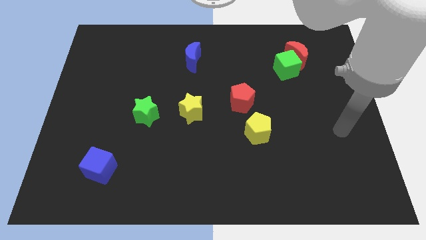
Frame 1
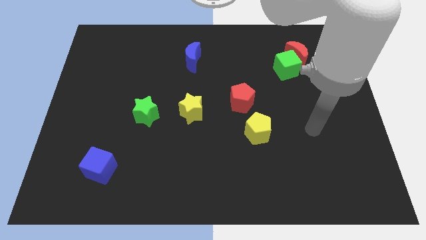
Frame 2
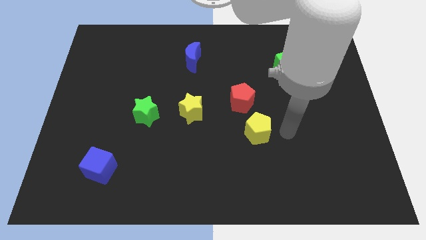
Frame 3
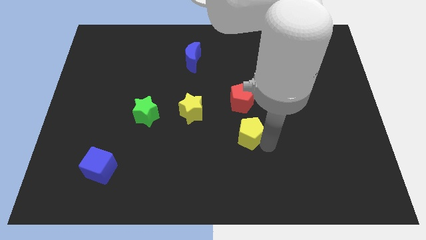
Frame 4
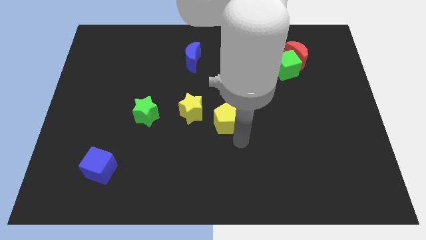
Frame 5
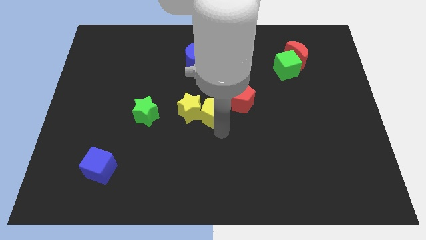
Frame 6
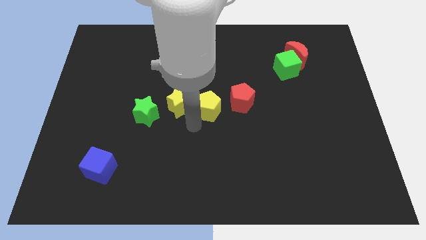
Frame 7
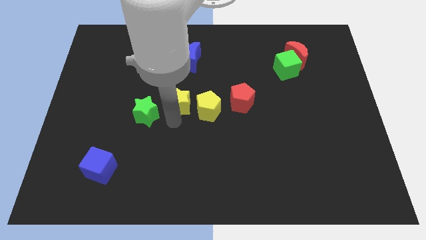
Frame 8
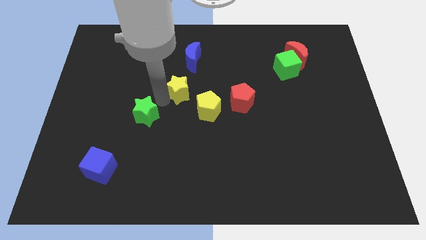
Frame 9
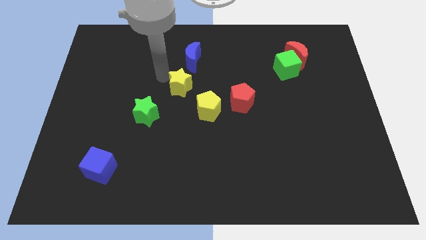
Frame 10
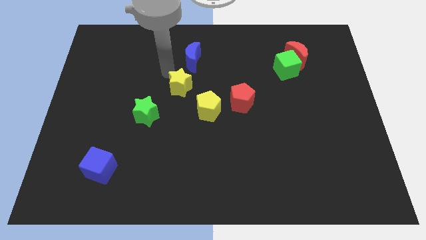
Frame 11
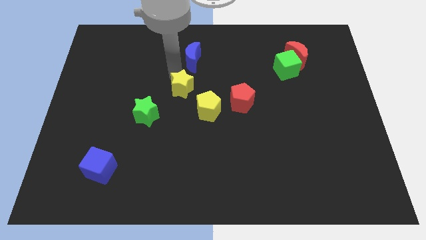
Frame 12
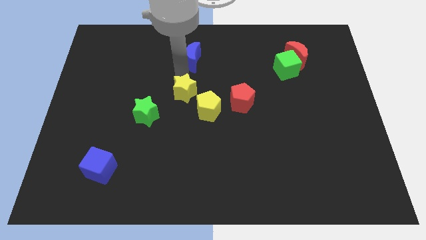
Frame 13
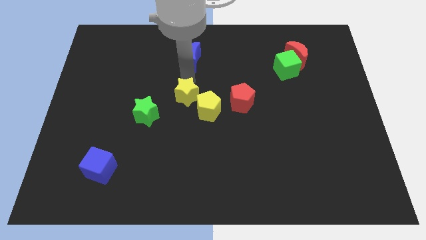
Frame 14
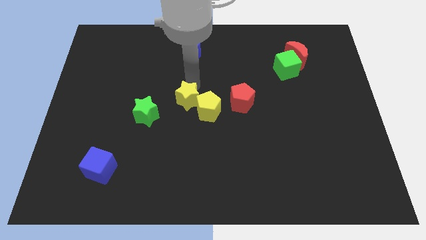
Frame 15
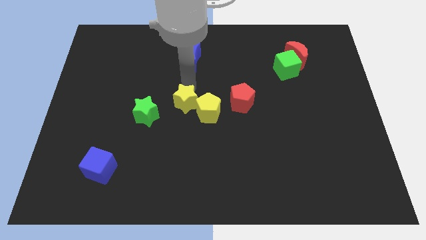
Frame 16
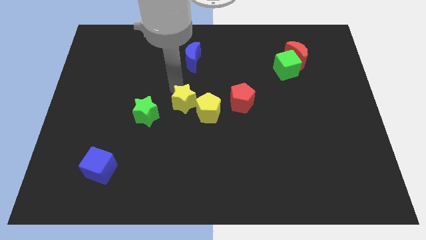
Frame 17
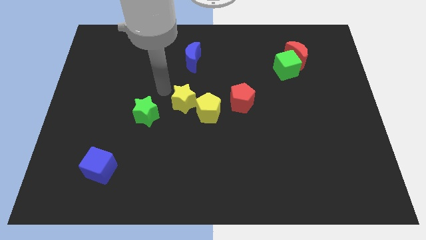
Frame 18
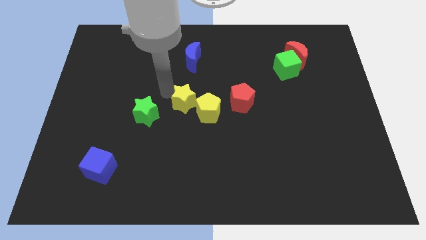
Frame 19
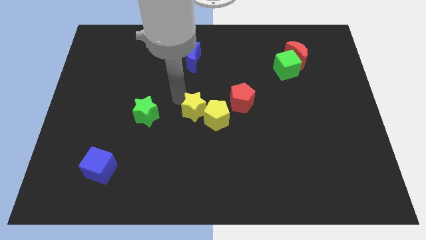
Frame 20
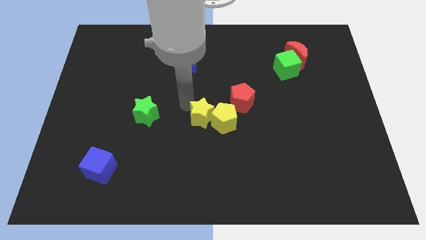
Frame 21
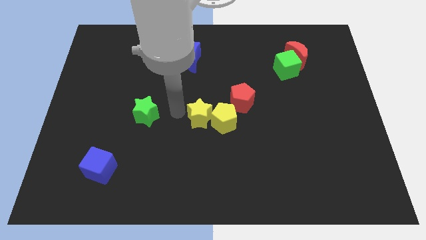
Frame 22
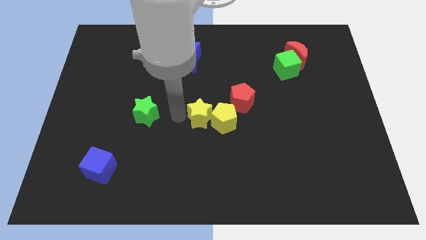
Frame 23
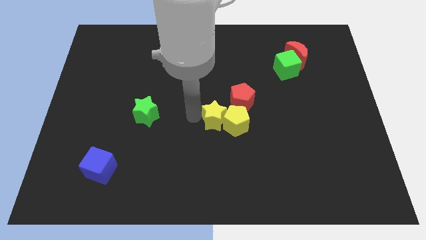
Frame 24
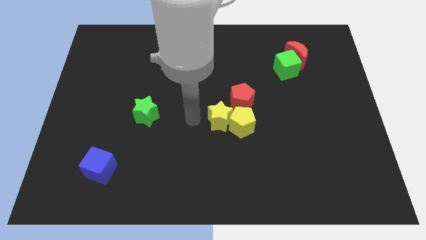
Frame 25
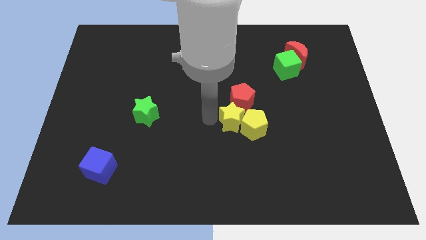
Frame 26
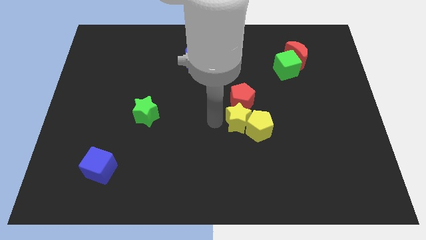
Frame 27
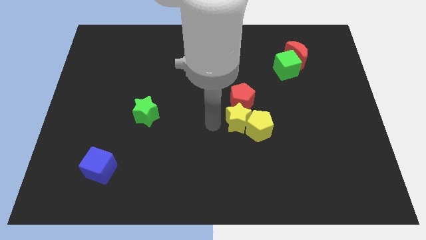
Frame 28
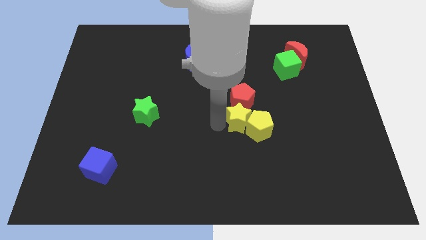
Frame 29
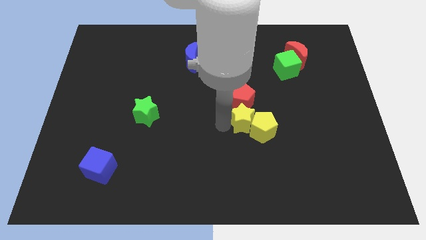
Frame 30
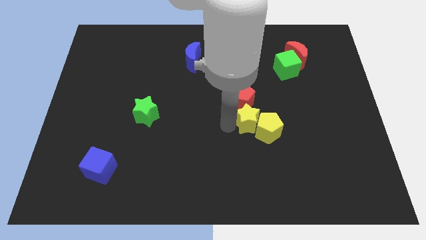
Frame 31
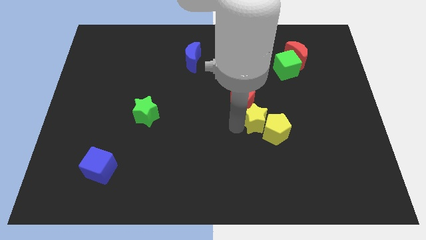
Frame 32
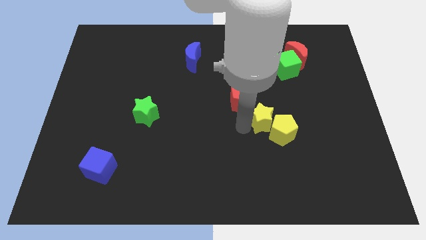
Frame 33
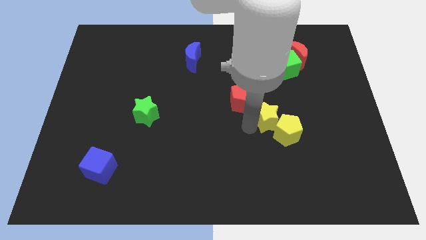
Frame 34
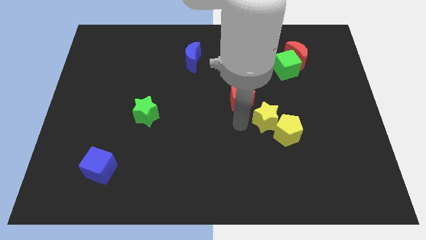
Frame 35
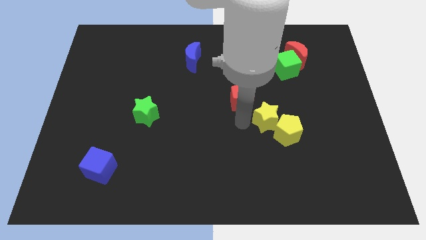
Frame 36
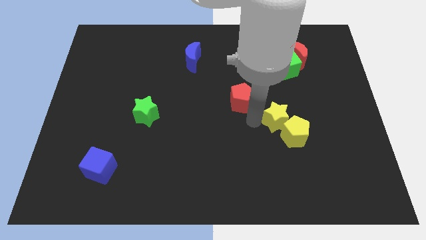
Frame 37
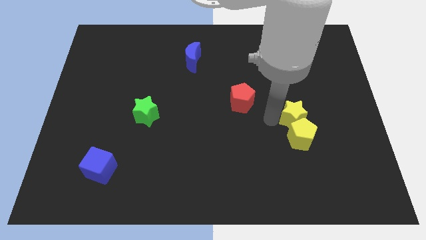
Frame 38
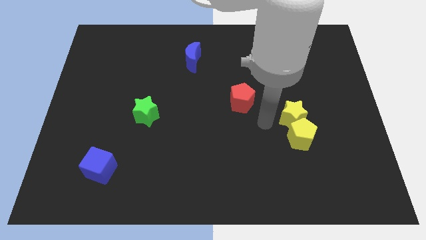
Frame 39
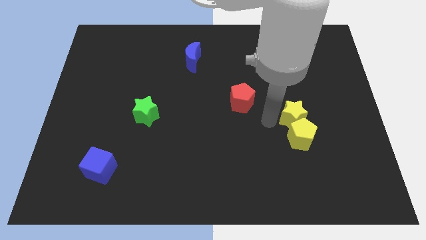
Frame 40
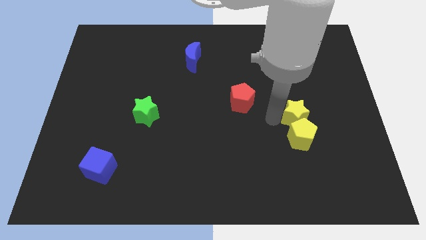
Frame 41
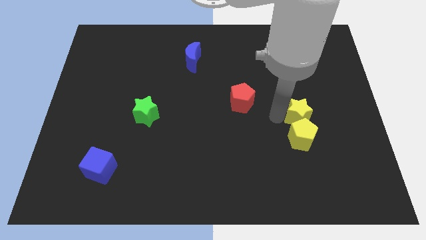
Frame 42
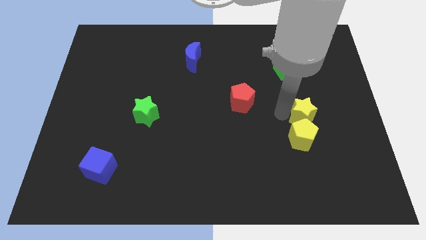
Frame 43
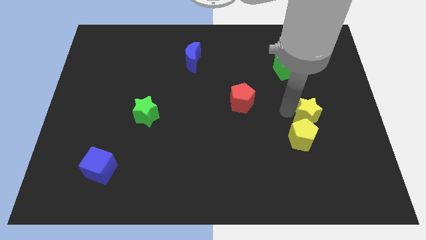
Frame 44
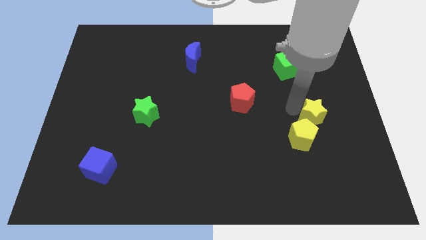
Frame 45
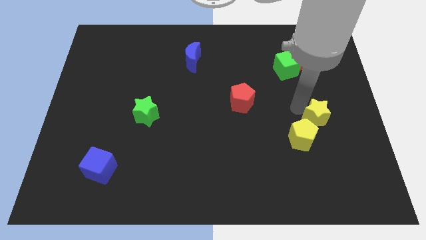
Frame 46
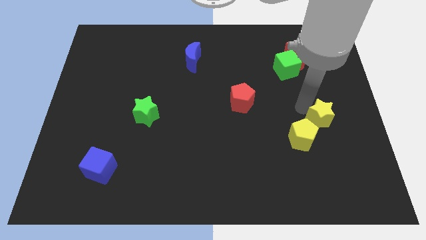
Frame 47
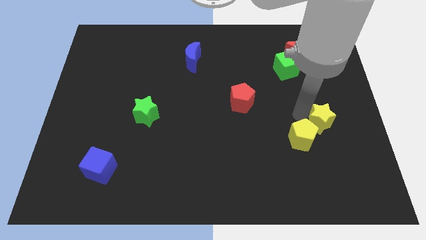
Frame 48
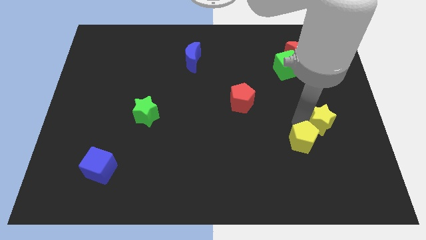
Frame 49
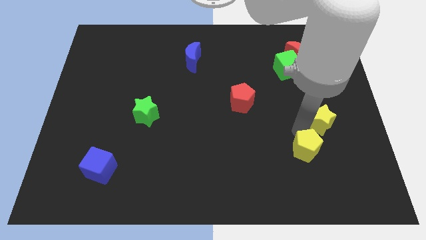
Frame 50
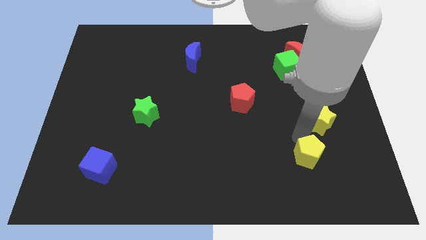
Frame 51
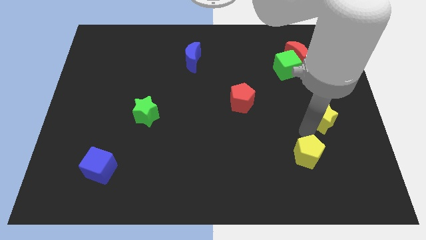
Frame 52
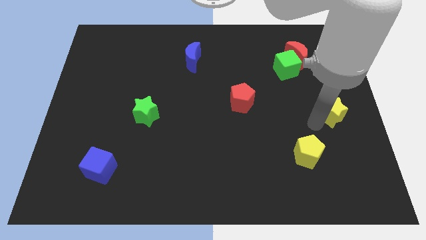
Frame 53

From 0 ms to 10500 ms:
put the yellow star to the right side of the board

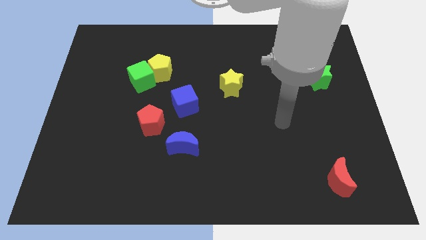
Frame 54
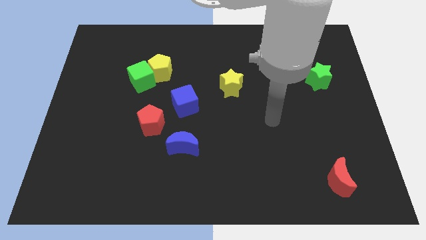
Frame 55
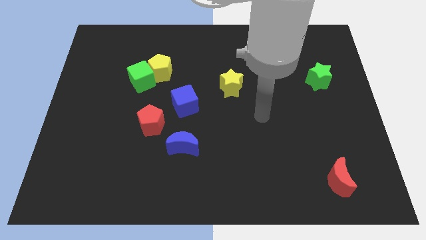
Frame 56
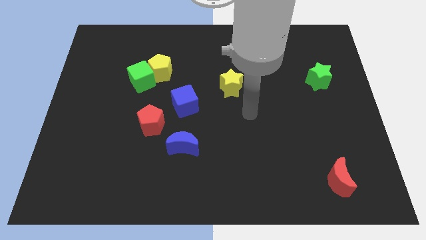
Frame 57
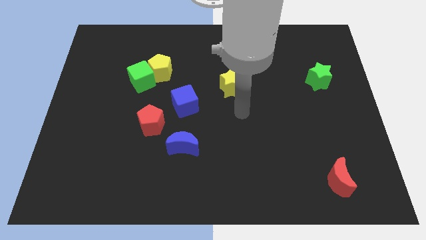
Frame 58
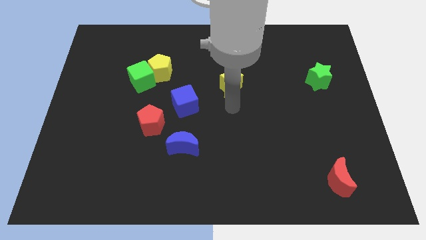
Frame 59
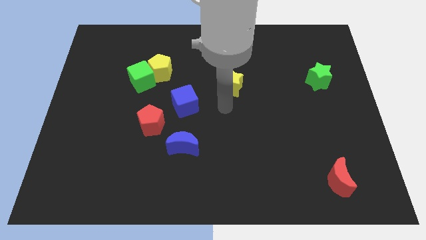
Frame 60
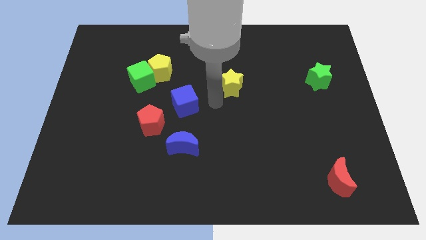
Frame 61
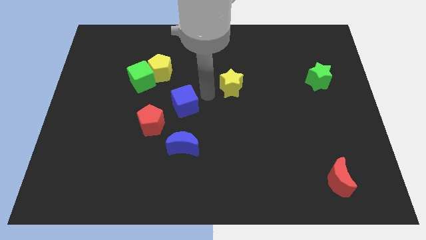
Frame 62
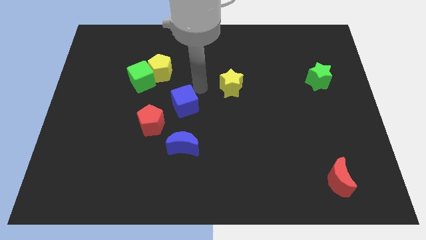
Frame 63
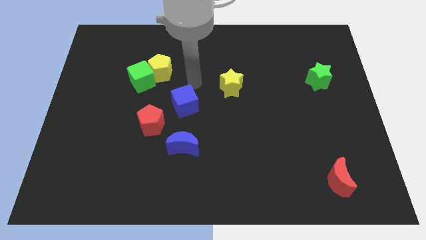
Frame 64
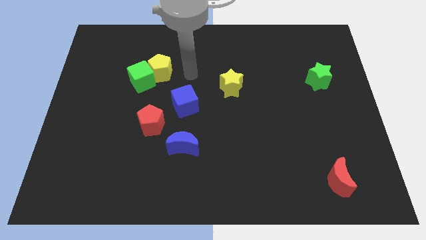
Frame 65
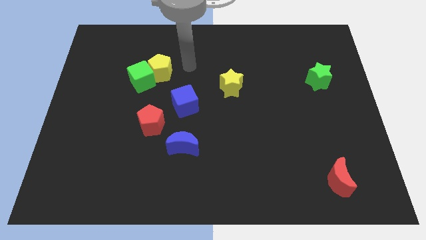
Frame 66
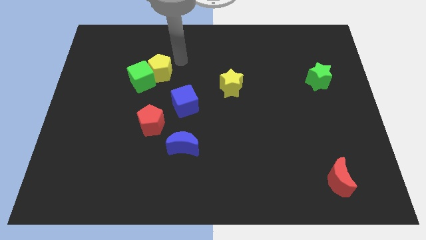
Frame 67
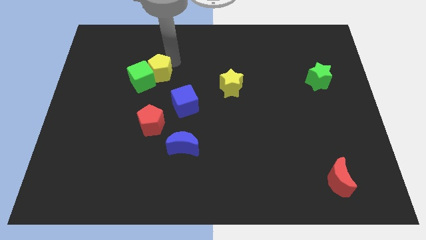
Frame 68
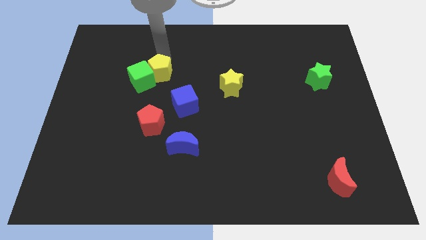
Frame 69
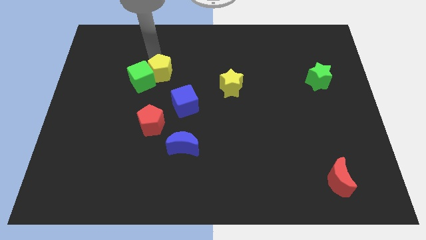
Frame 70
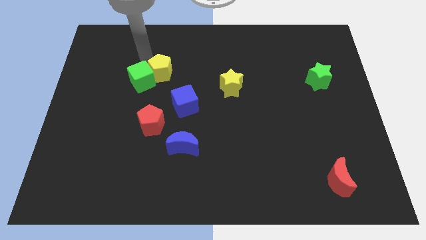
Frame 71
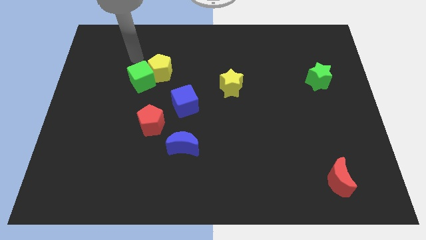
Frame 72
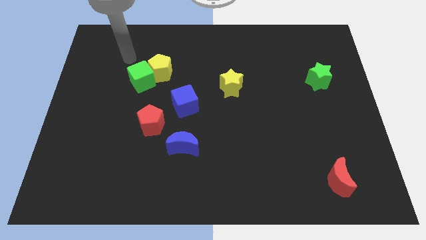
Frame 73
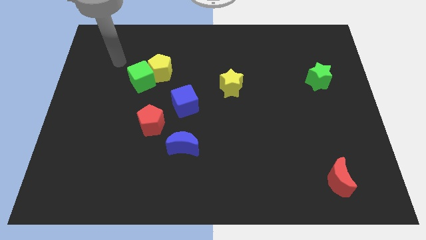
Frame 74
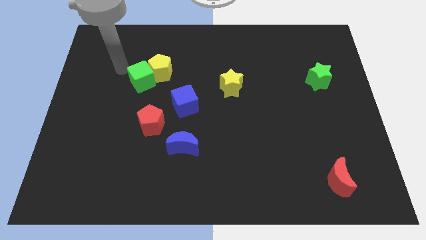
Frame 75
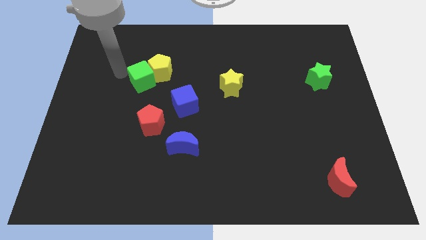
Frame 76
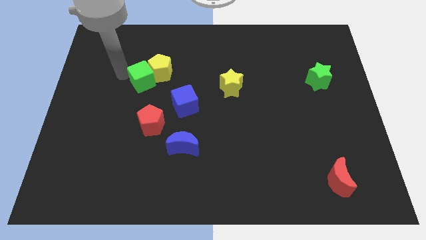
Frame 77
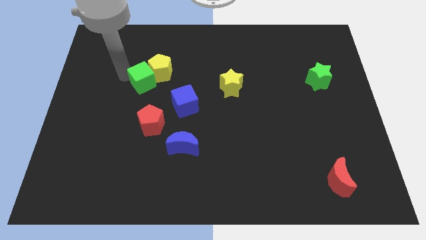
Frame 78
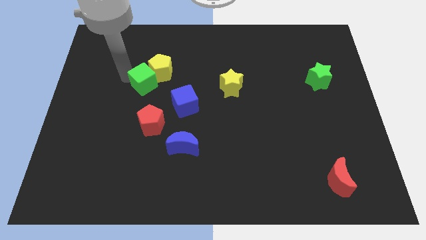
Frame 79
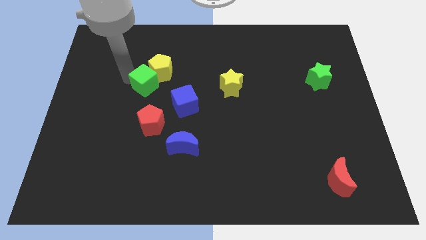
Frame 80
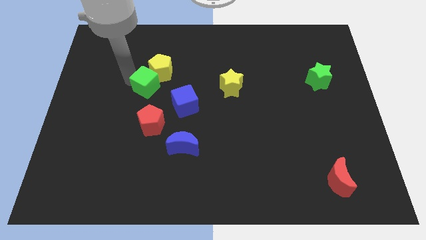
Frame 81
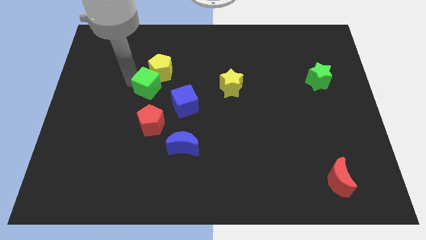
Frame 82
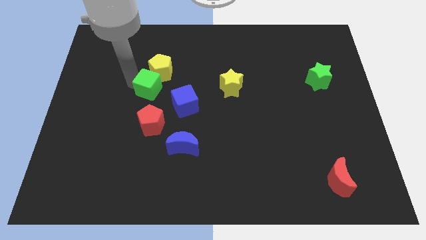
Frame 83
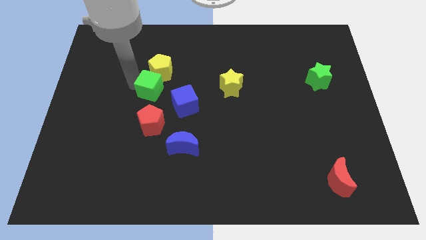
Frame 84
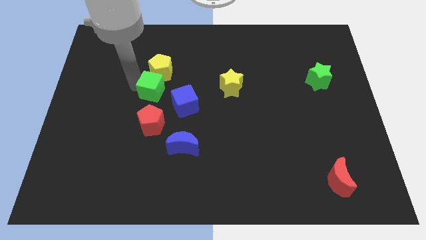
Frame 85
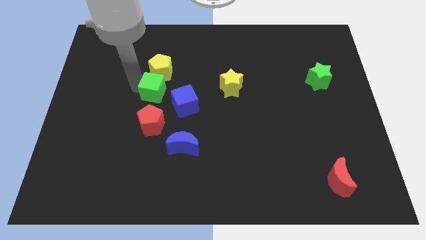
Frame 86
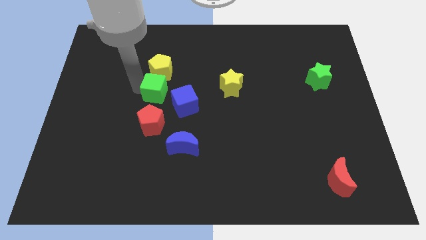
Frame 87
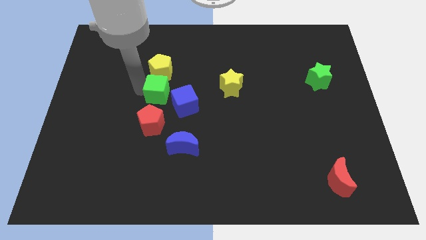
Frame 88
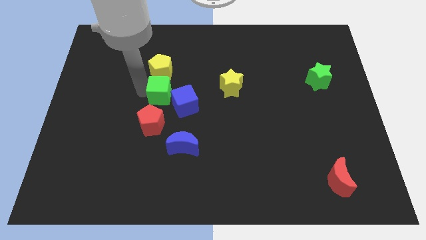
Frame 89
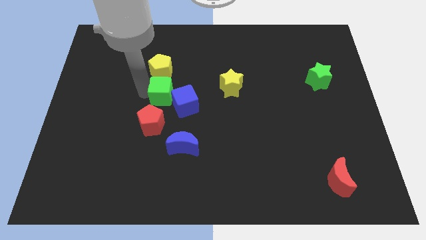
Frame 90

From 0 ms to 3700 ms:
push the green cube to the middle of the board
